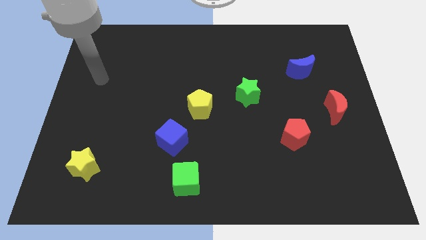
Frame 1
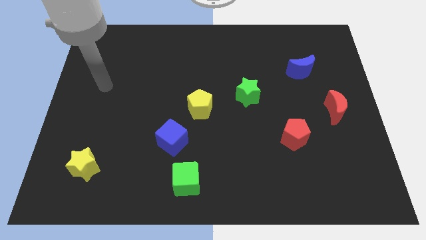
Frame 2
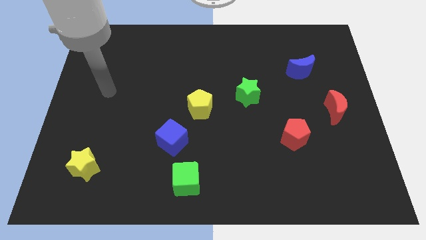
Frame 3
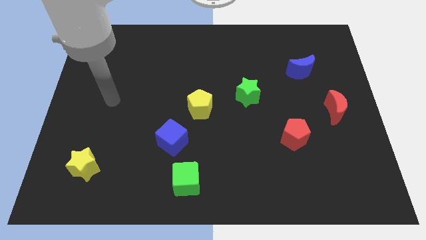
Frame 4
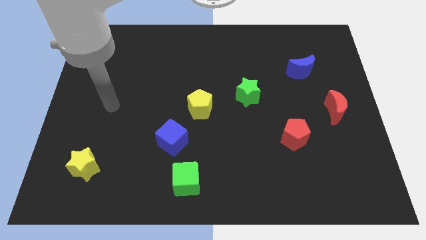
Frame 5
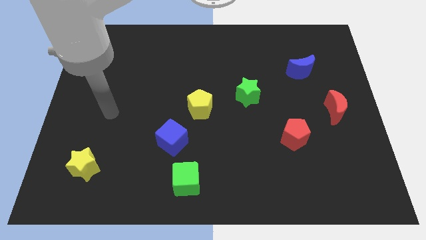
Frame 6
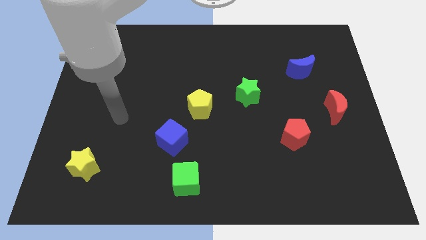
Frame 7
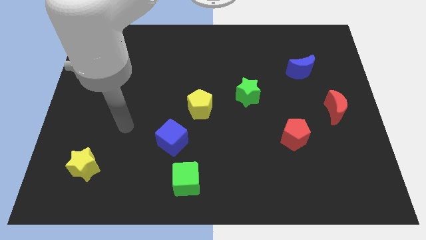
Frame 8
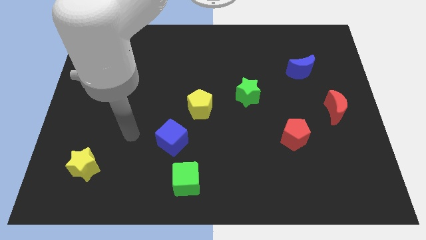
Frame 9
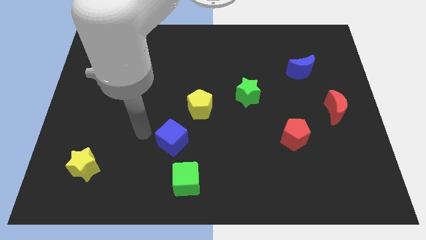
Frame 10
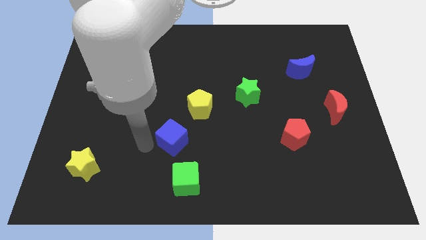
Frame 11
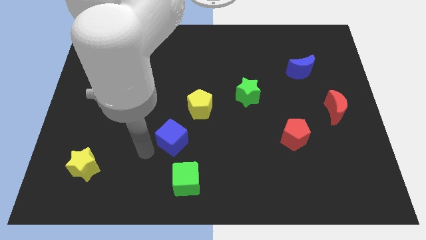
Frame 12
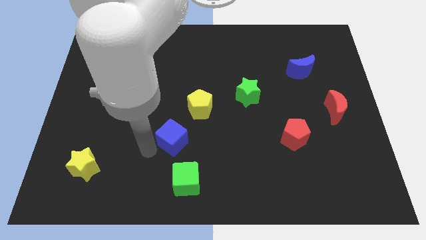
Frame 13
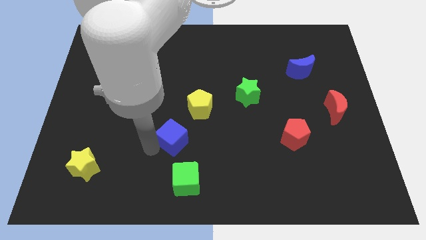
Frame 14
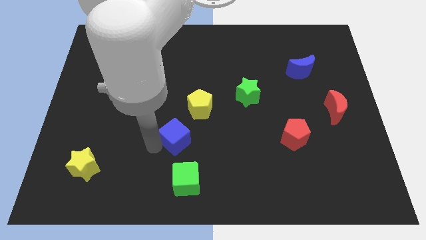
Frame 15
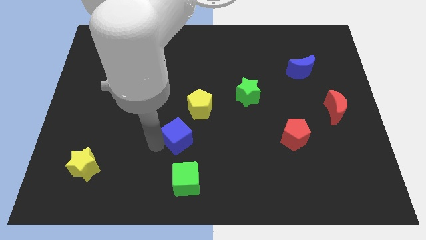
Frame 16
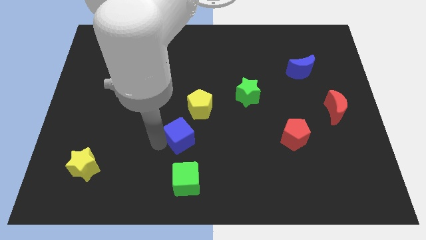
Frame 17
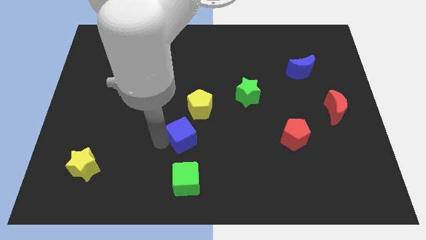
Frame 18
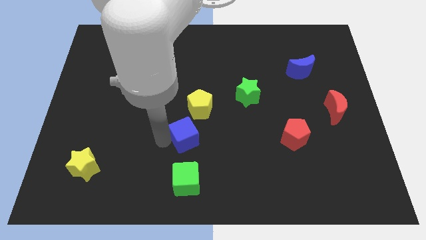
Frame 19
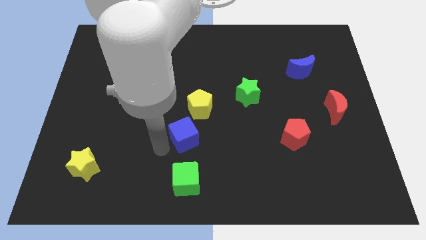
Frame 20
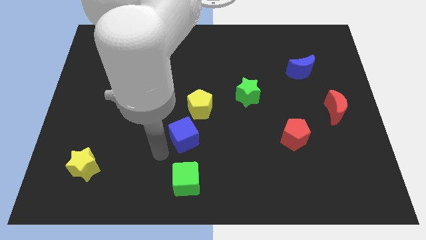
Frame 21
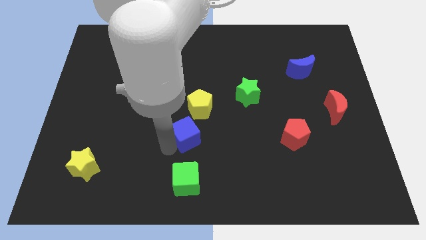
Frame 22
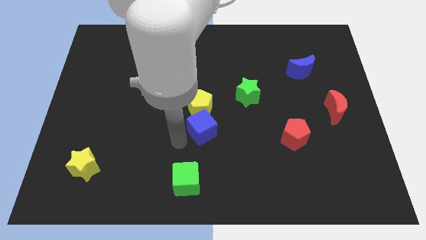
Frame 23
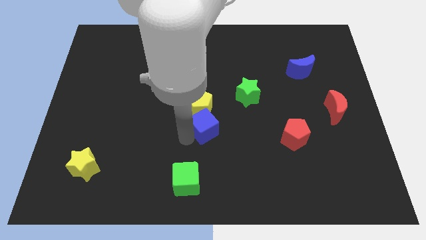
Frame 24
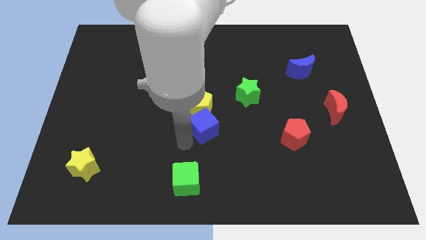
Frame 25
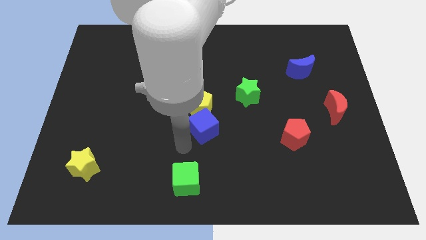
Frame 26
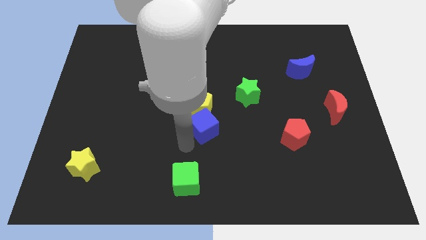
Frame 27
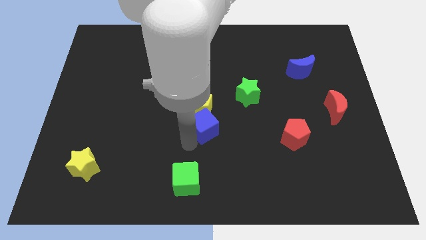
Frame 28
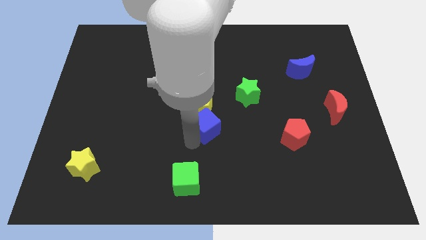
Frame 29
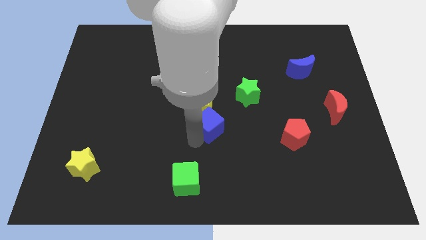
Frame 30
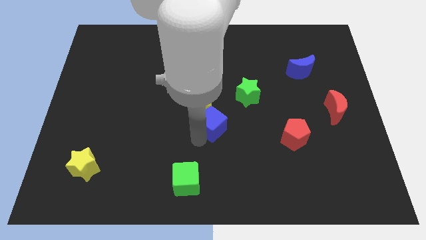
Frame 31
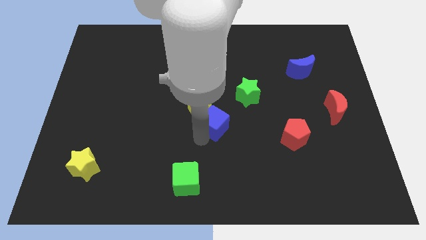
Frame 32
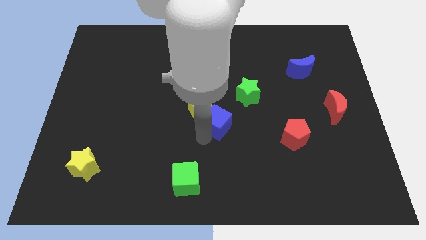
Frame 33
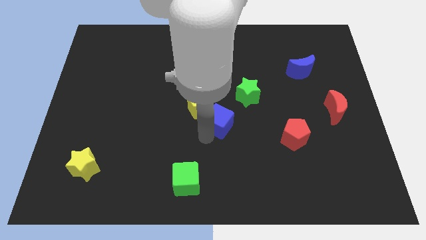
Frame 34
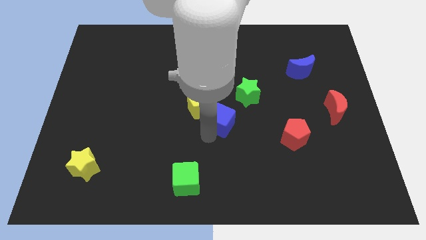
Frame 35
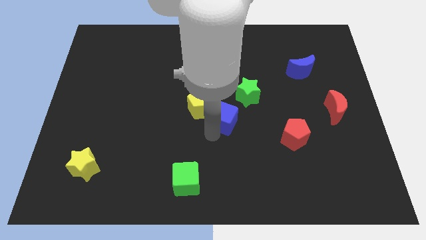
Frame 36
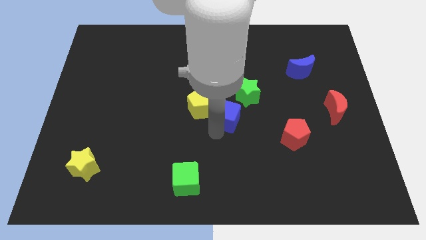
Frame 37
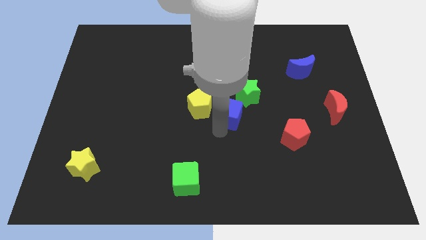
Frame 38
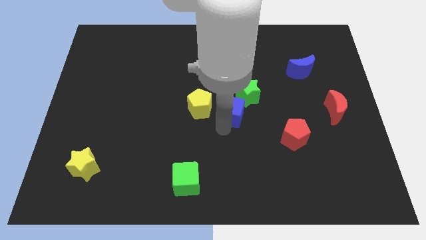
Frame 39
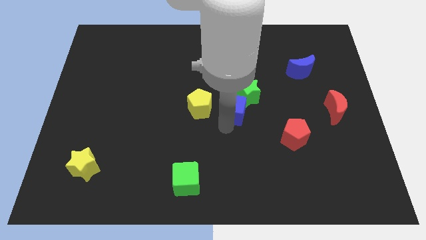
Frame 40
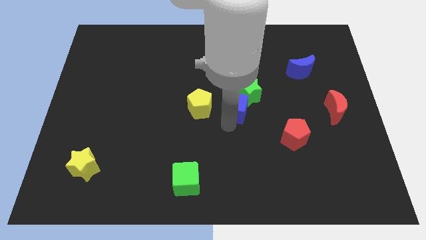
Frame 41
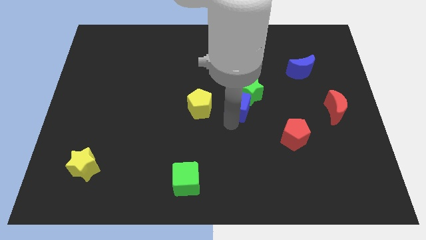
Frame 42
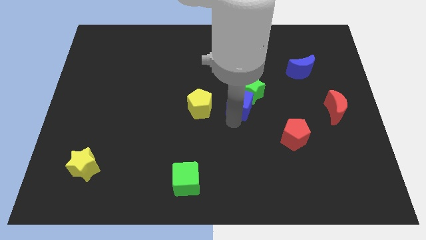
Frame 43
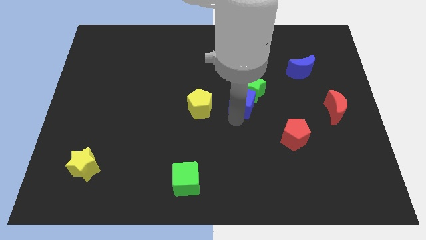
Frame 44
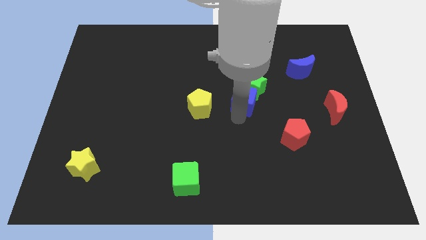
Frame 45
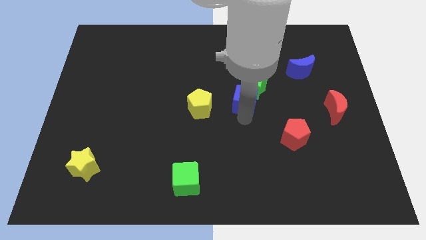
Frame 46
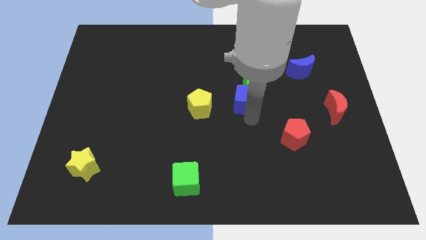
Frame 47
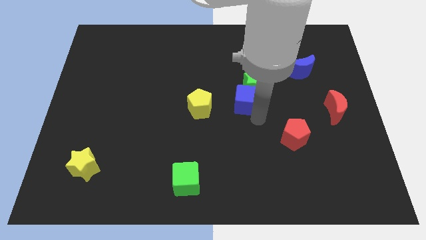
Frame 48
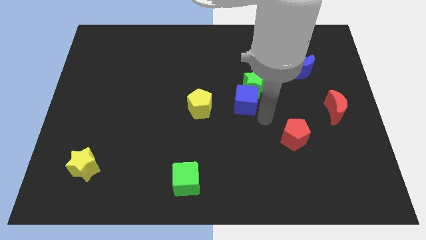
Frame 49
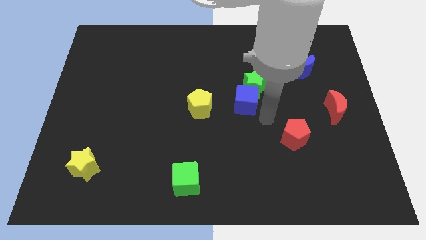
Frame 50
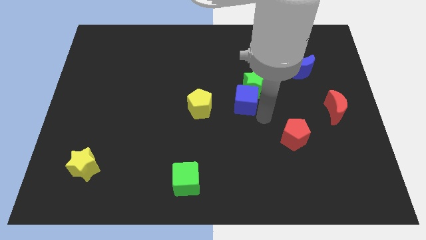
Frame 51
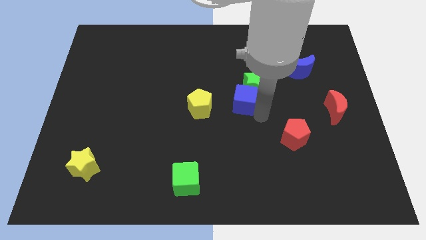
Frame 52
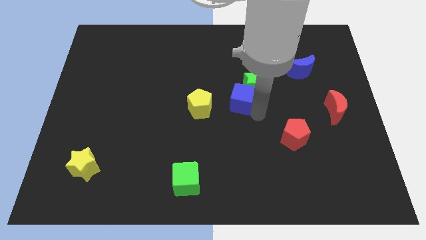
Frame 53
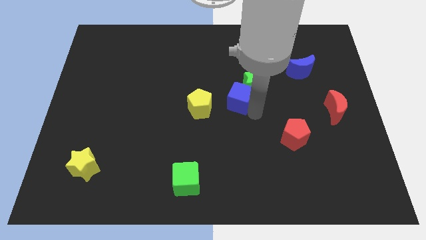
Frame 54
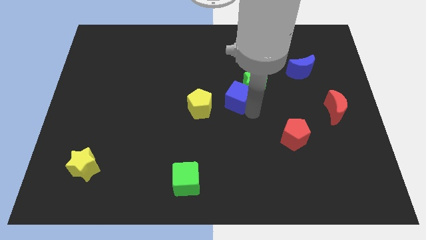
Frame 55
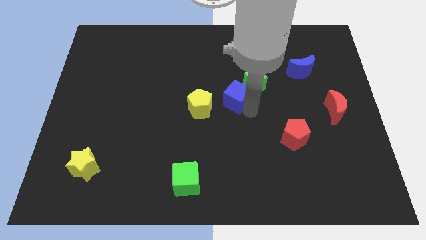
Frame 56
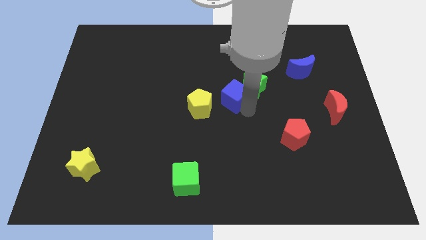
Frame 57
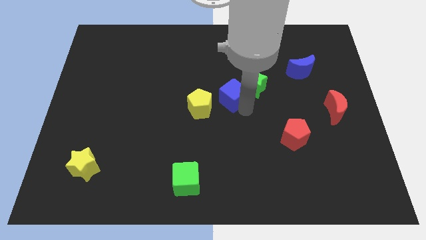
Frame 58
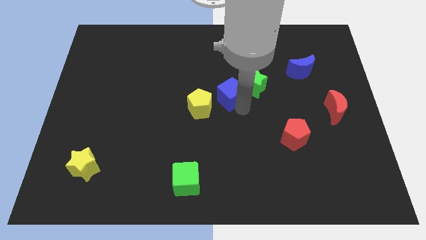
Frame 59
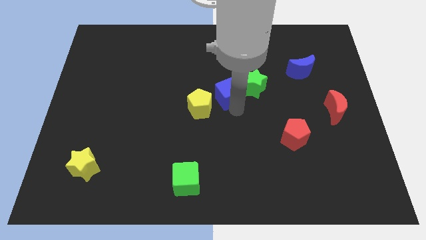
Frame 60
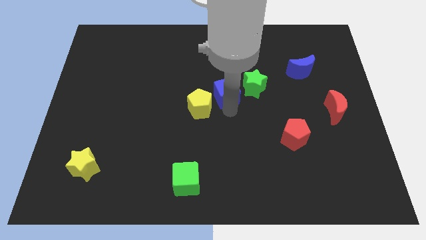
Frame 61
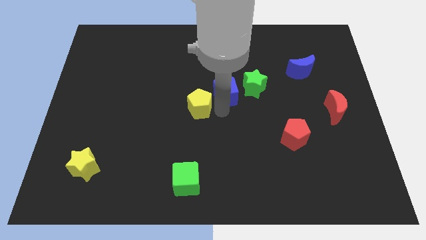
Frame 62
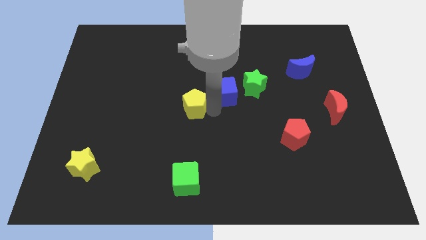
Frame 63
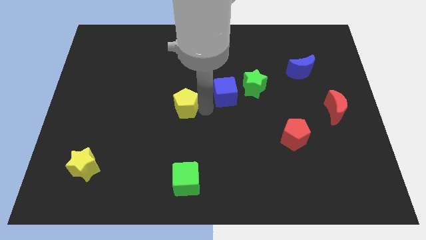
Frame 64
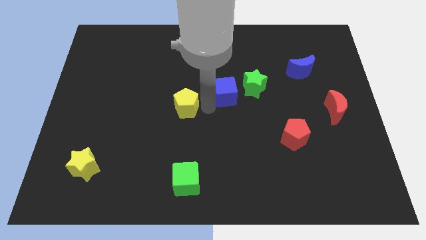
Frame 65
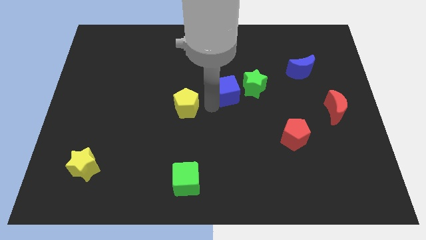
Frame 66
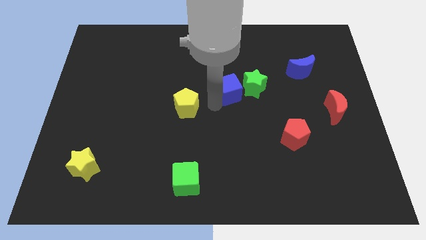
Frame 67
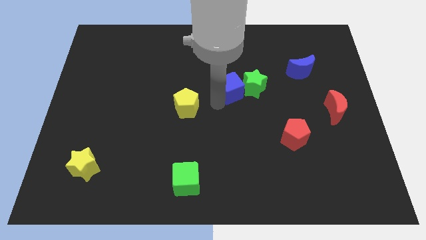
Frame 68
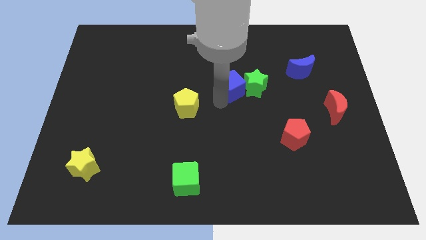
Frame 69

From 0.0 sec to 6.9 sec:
move the blue cube up and then to the right

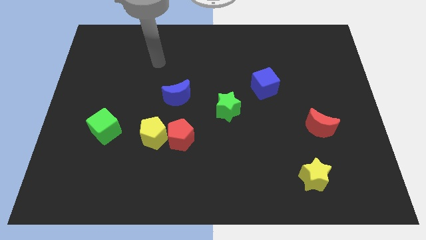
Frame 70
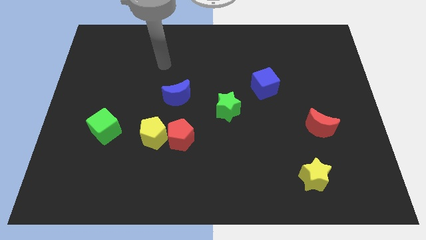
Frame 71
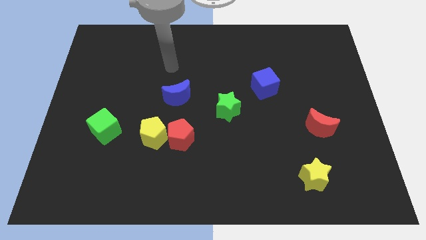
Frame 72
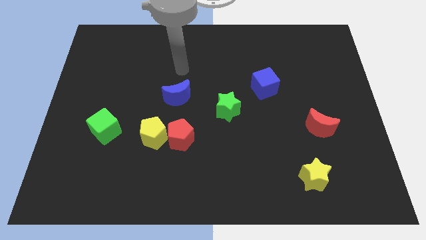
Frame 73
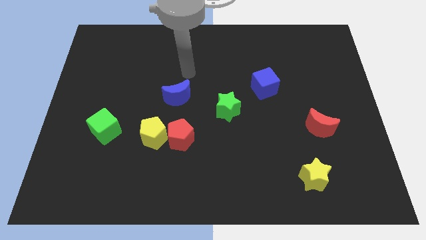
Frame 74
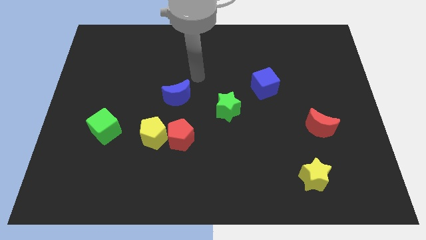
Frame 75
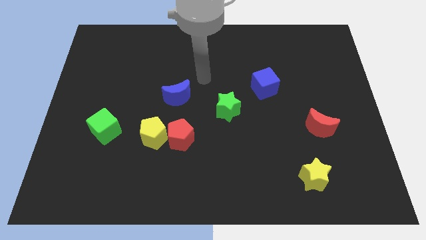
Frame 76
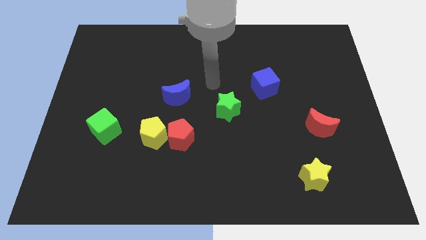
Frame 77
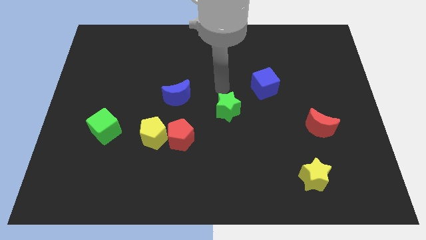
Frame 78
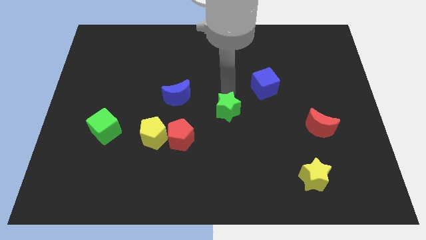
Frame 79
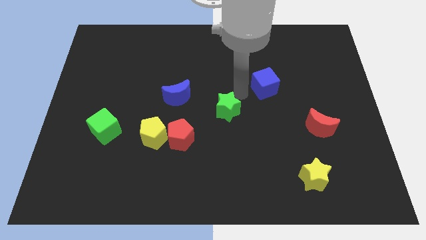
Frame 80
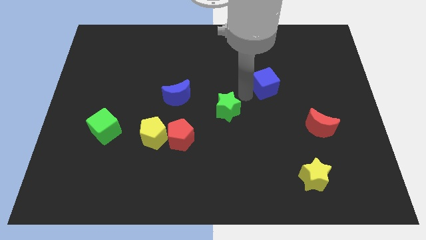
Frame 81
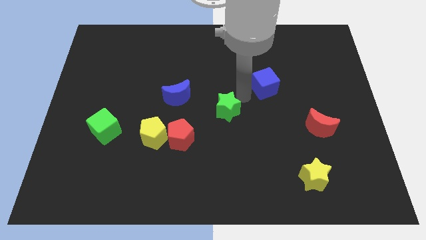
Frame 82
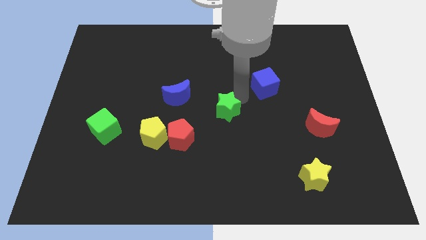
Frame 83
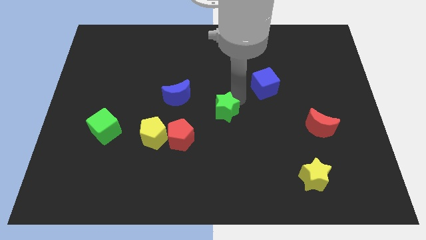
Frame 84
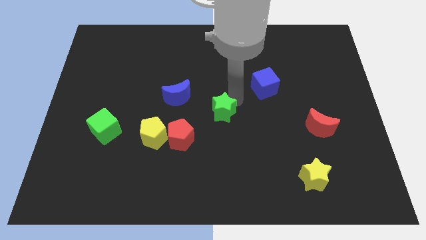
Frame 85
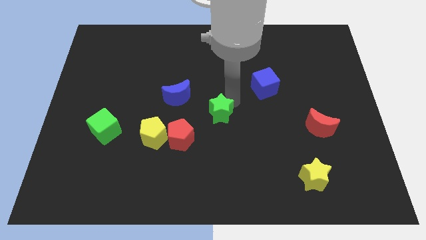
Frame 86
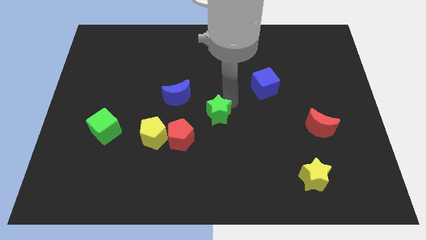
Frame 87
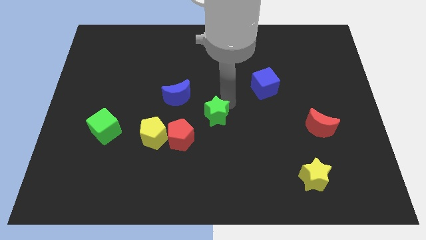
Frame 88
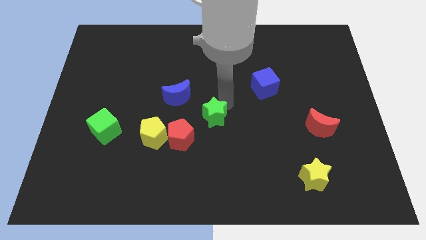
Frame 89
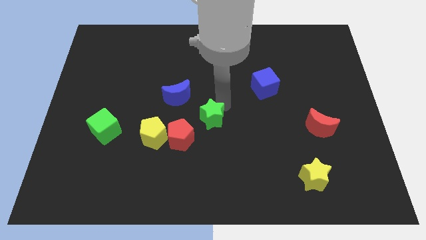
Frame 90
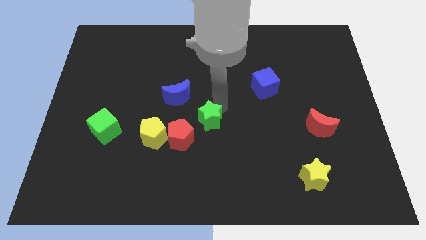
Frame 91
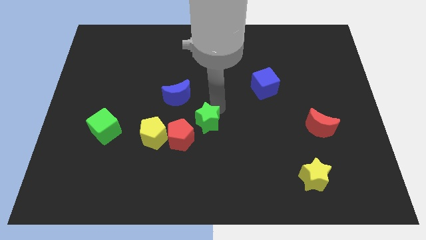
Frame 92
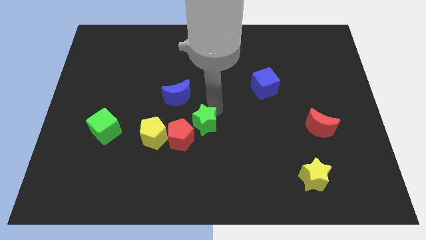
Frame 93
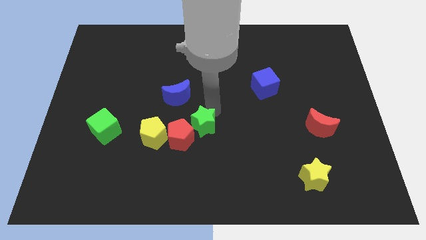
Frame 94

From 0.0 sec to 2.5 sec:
slide the green star slightly down and to the left
